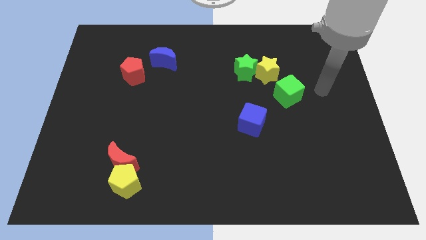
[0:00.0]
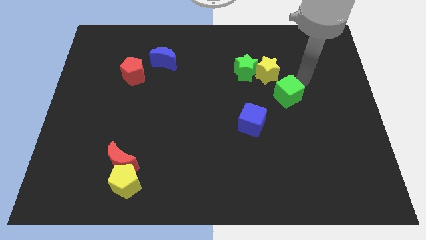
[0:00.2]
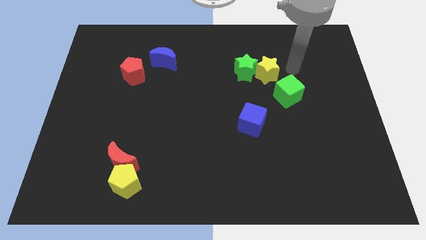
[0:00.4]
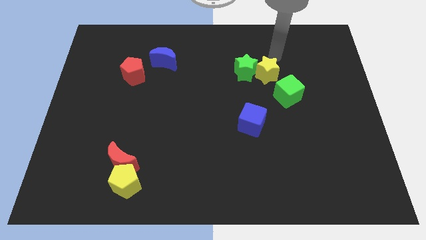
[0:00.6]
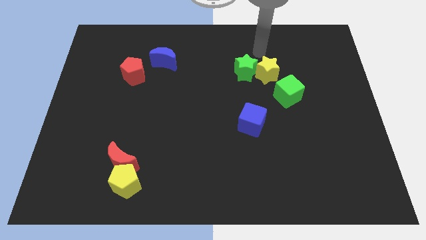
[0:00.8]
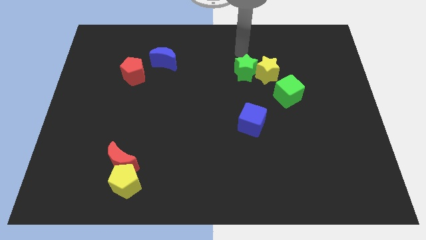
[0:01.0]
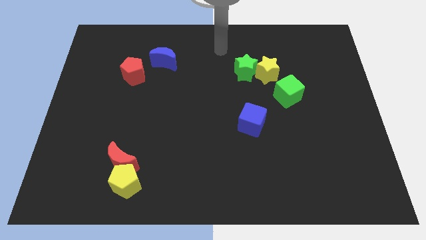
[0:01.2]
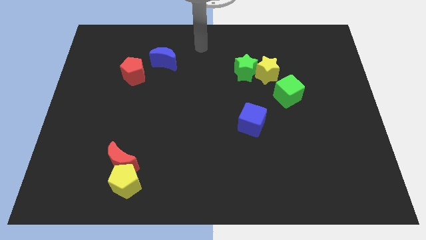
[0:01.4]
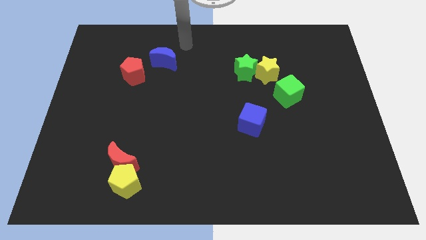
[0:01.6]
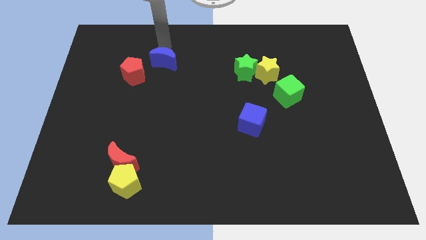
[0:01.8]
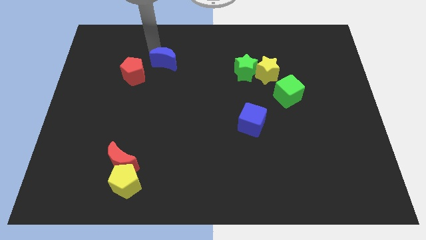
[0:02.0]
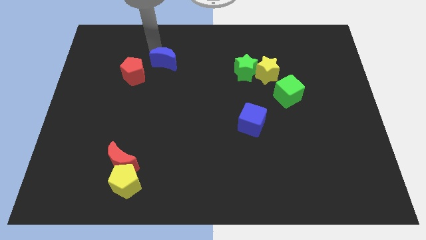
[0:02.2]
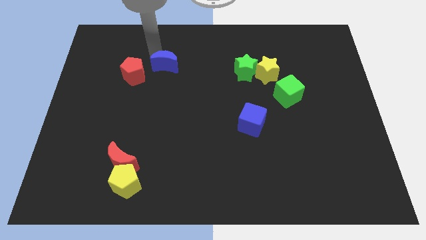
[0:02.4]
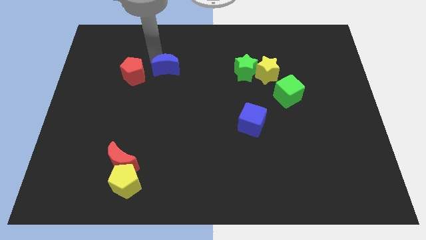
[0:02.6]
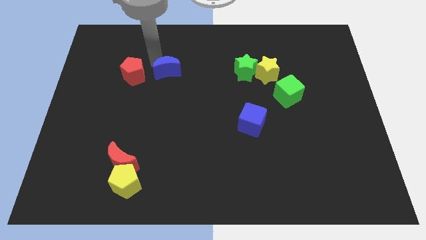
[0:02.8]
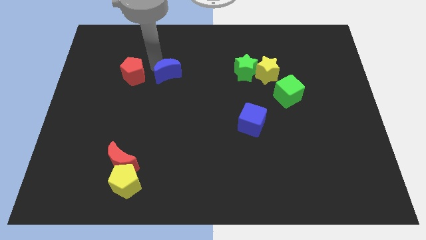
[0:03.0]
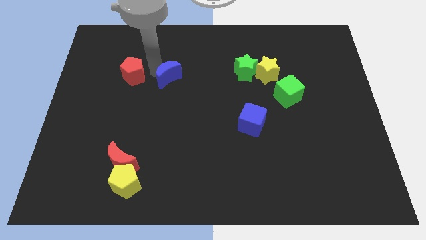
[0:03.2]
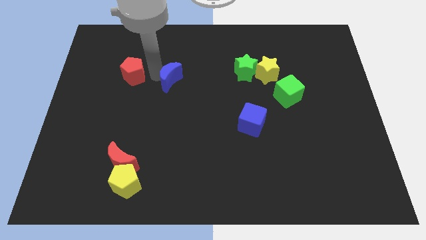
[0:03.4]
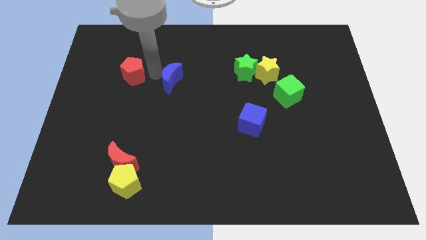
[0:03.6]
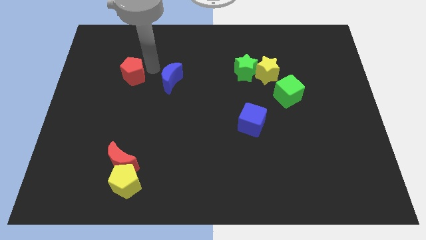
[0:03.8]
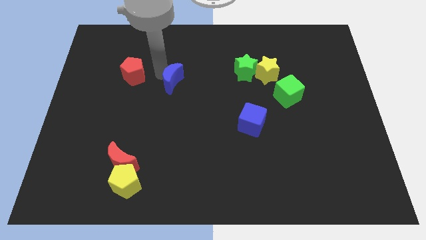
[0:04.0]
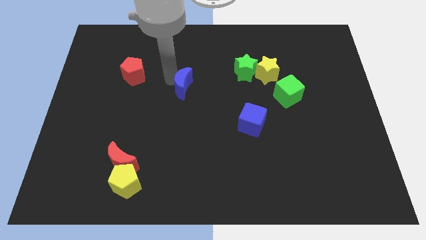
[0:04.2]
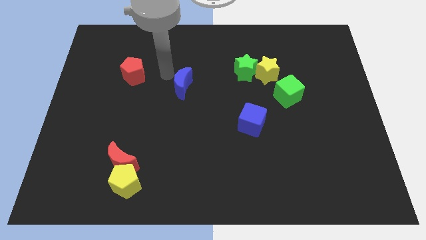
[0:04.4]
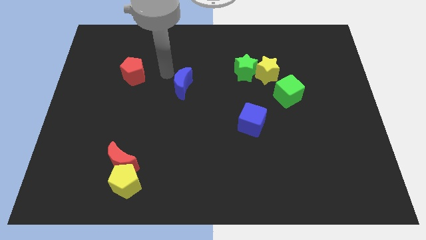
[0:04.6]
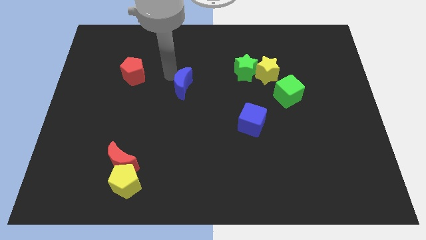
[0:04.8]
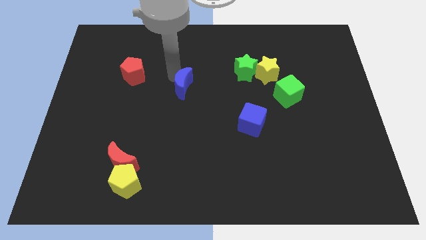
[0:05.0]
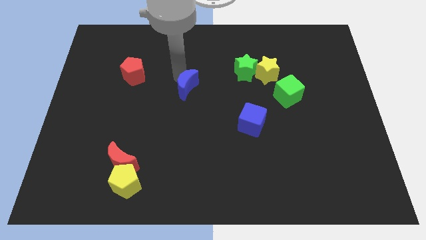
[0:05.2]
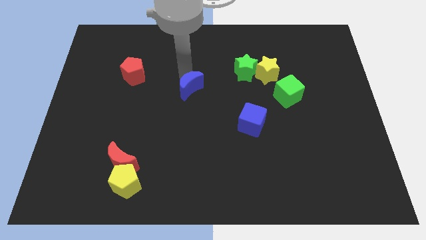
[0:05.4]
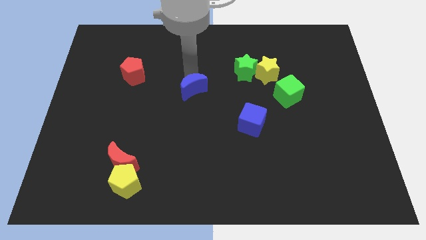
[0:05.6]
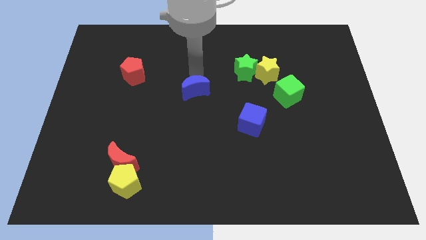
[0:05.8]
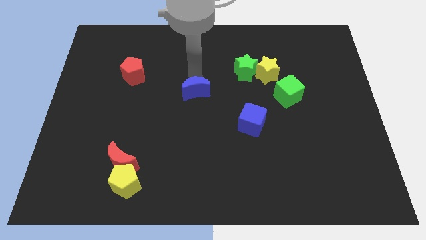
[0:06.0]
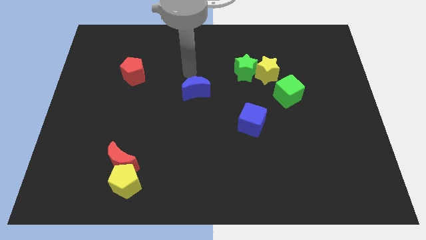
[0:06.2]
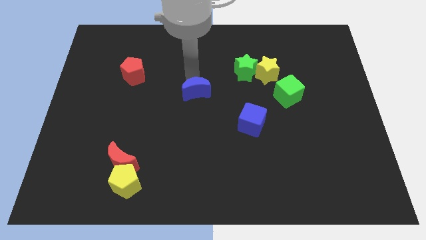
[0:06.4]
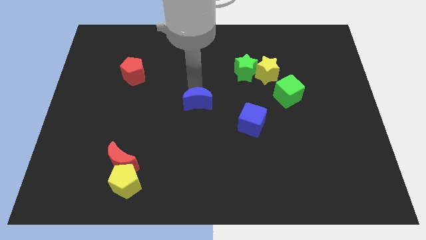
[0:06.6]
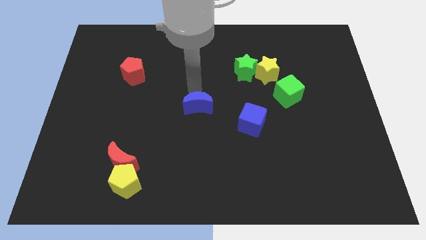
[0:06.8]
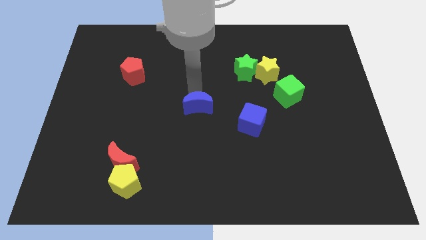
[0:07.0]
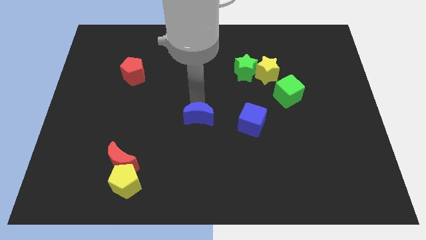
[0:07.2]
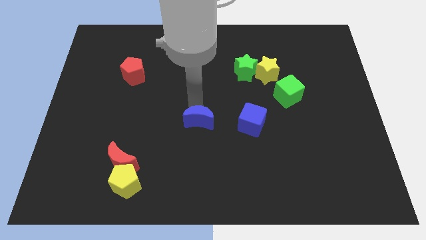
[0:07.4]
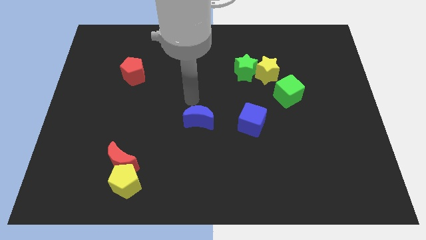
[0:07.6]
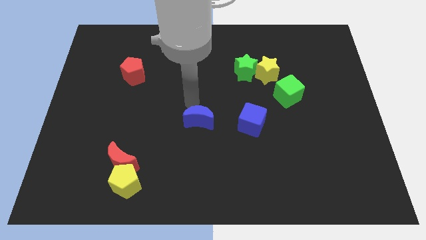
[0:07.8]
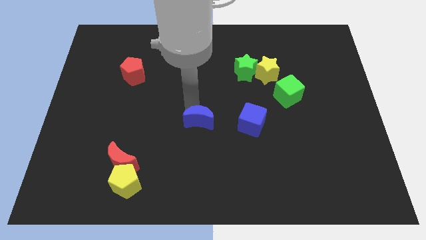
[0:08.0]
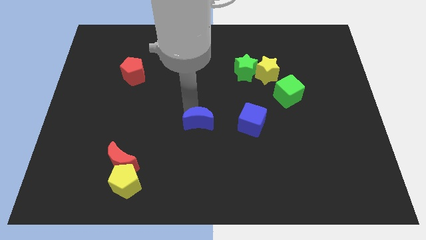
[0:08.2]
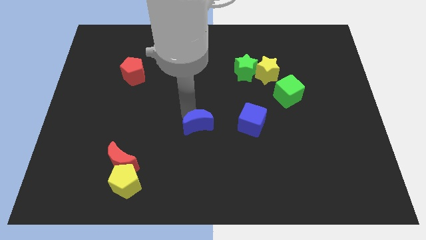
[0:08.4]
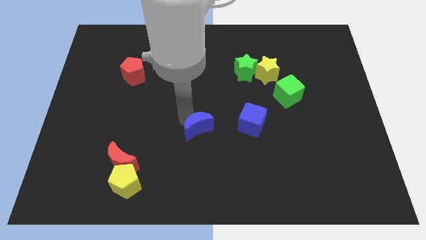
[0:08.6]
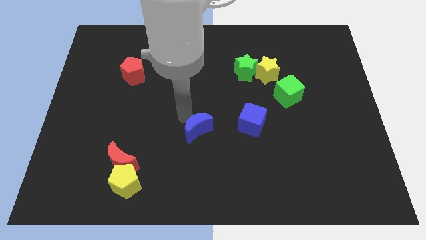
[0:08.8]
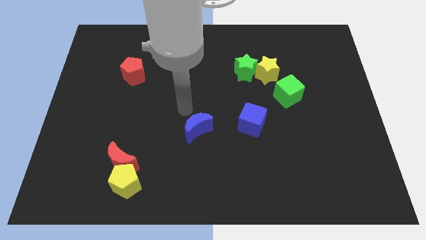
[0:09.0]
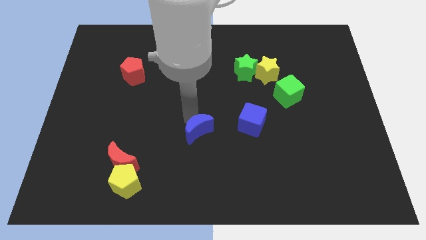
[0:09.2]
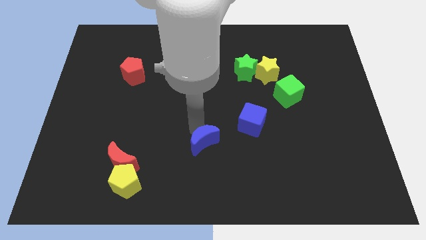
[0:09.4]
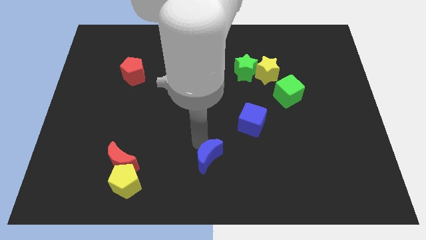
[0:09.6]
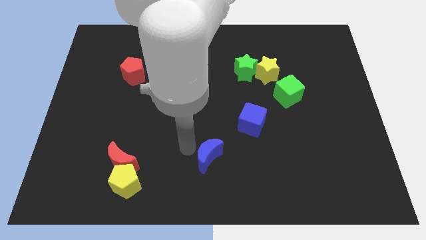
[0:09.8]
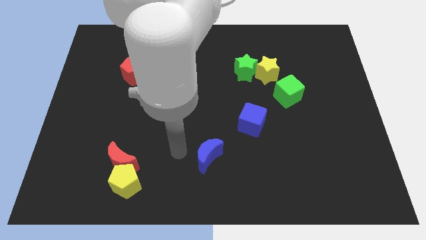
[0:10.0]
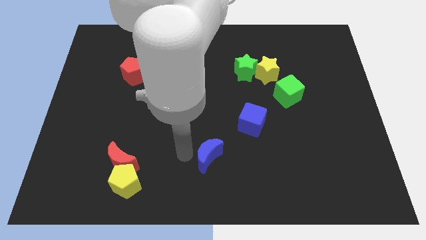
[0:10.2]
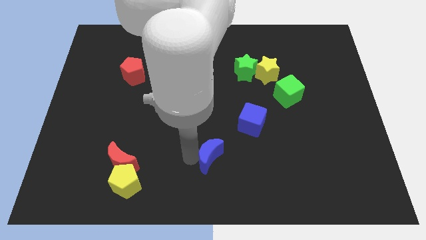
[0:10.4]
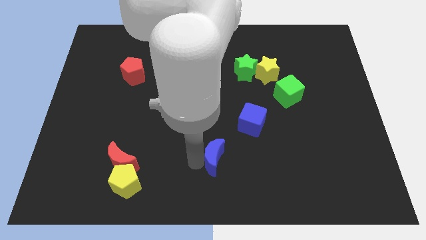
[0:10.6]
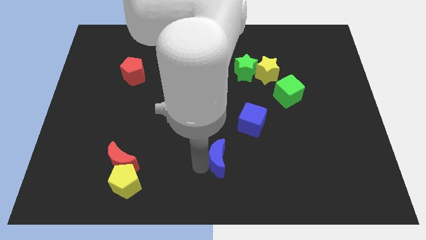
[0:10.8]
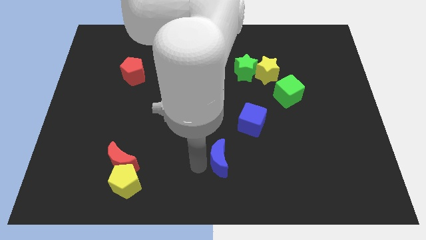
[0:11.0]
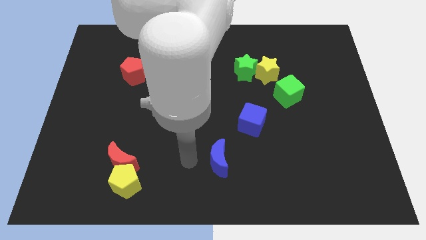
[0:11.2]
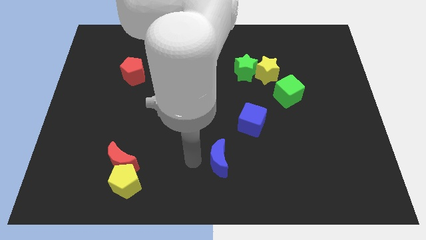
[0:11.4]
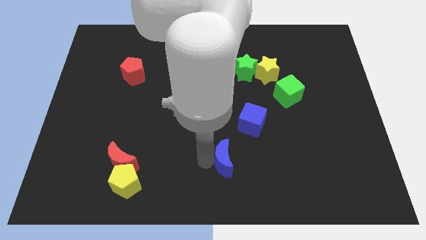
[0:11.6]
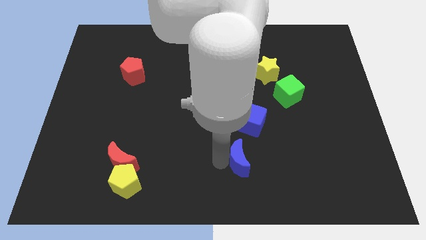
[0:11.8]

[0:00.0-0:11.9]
put the blue moon to the bottom side of the blue cube

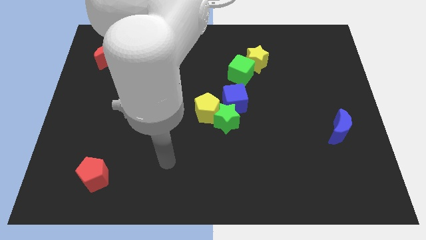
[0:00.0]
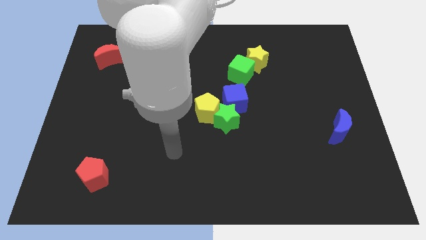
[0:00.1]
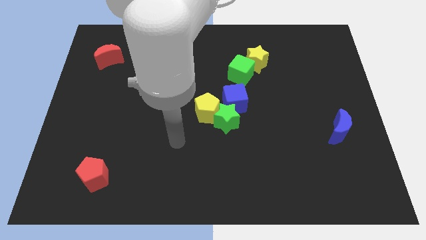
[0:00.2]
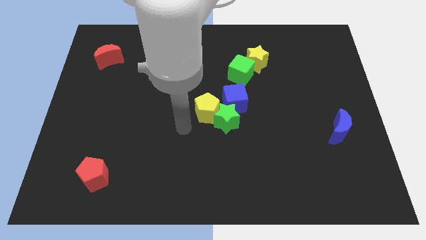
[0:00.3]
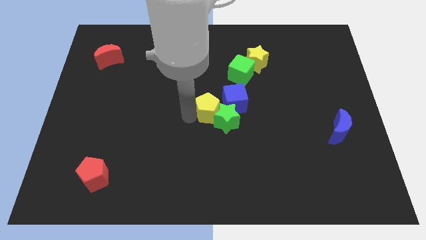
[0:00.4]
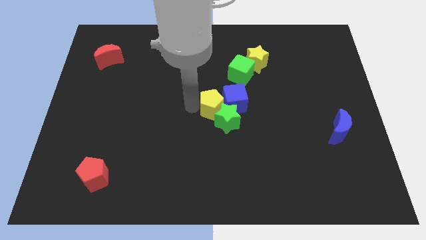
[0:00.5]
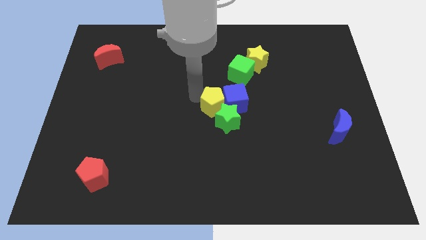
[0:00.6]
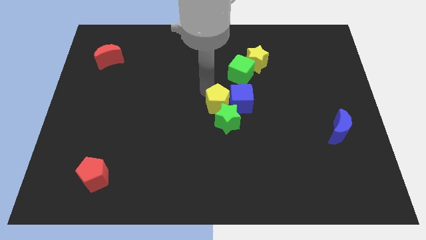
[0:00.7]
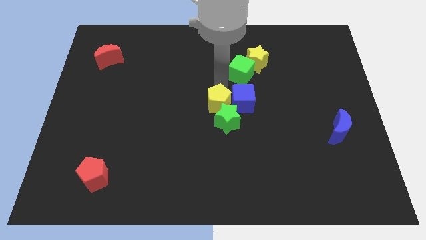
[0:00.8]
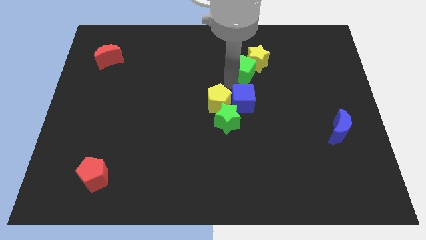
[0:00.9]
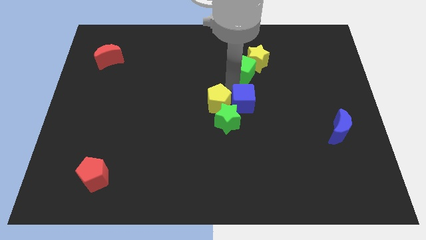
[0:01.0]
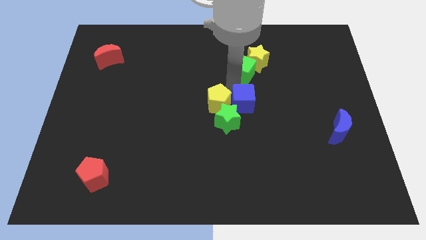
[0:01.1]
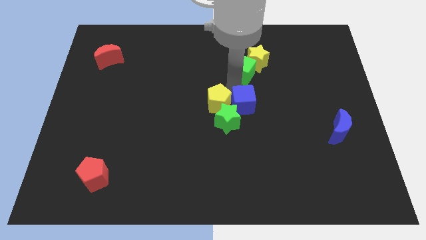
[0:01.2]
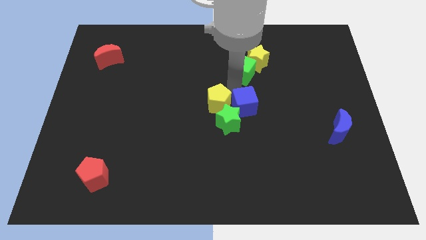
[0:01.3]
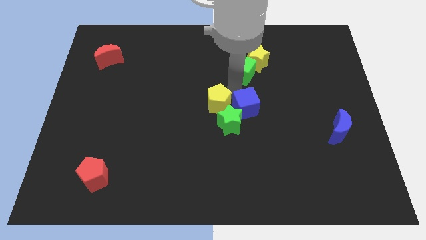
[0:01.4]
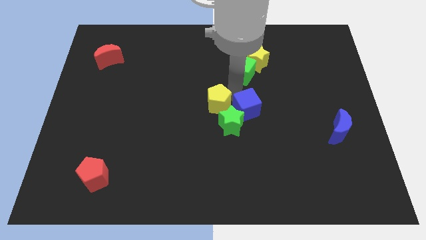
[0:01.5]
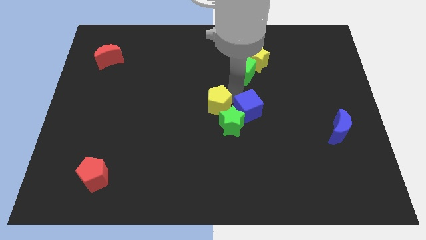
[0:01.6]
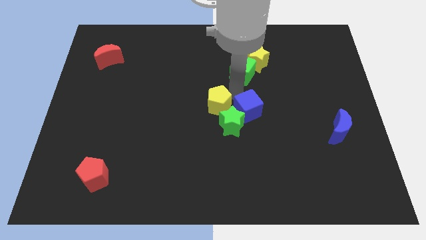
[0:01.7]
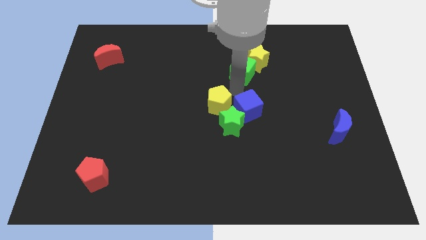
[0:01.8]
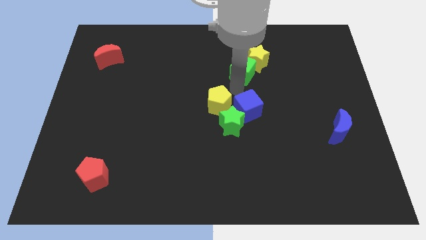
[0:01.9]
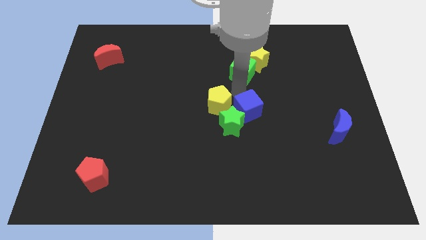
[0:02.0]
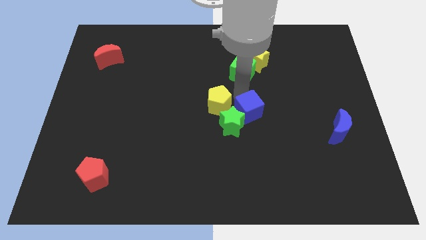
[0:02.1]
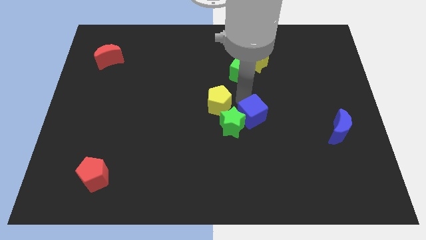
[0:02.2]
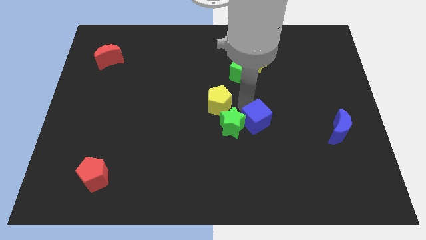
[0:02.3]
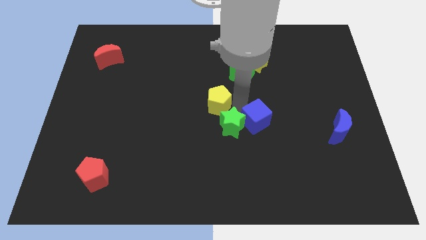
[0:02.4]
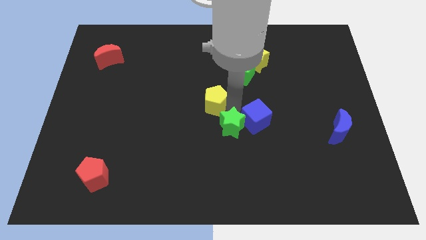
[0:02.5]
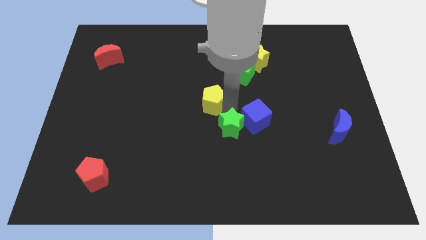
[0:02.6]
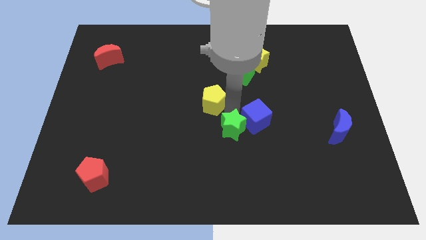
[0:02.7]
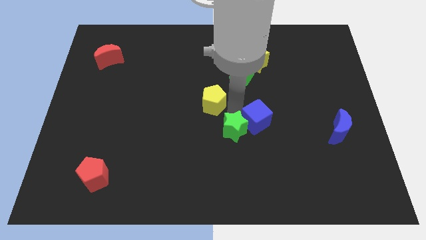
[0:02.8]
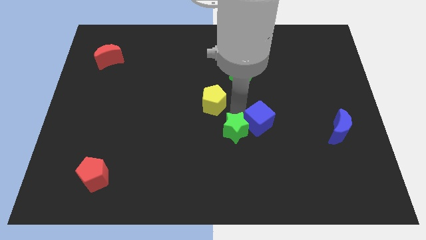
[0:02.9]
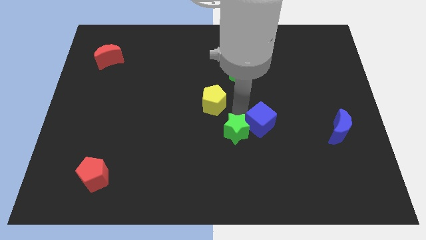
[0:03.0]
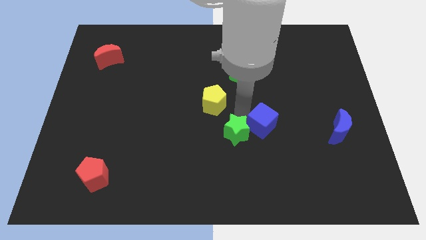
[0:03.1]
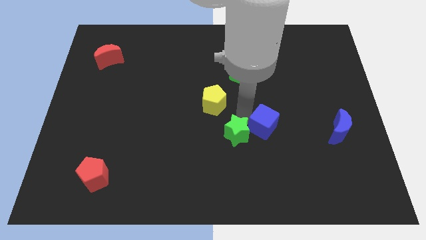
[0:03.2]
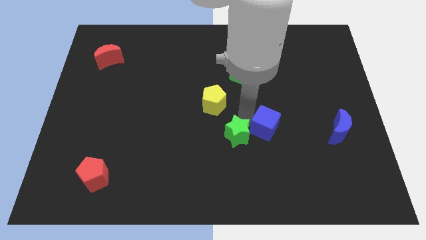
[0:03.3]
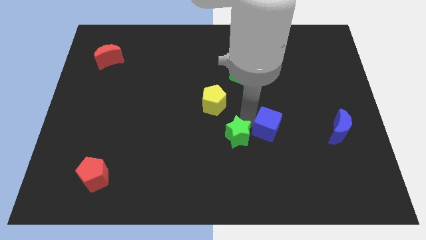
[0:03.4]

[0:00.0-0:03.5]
put the blue cube just left of the blue moon
